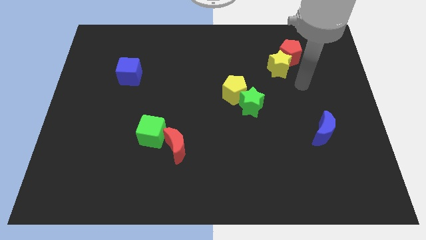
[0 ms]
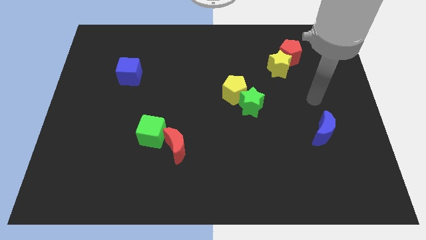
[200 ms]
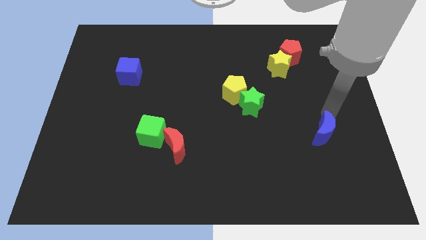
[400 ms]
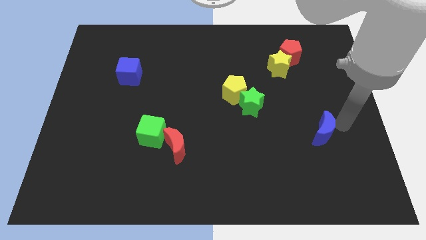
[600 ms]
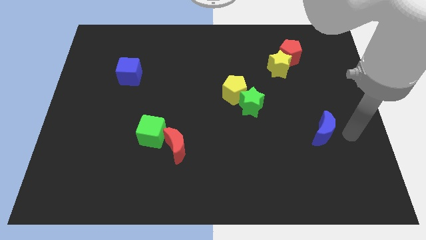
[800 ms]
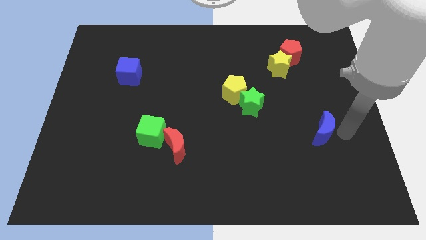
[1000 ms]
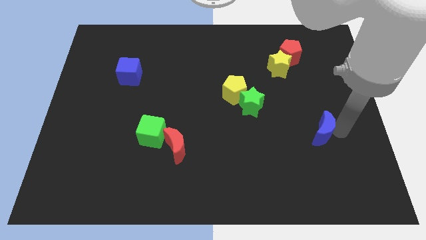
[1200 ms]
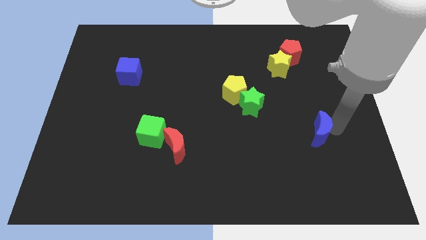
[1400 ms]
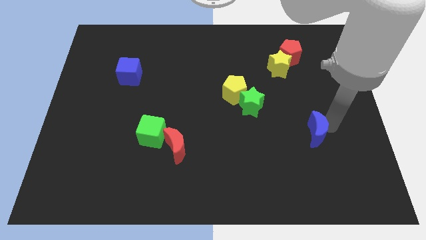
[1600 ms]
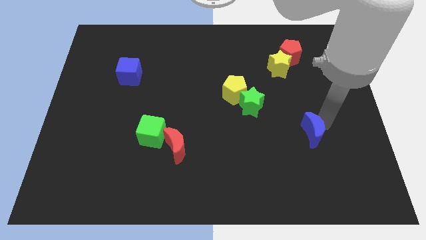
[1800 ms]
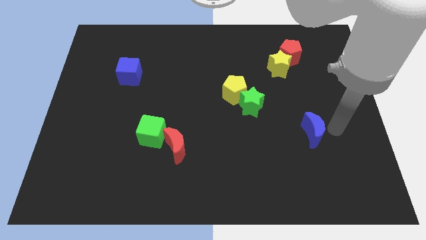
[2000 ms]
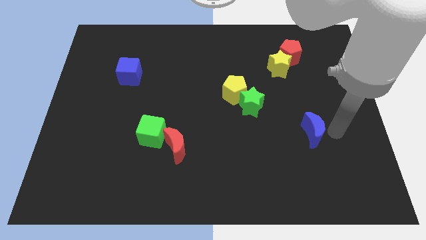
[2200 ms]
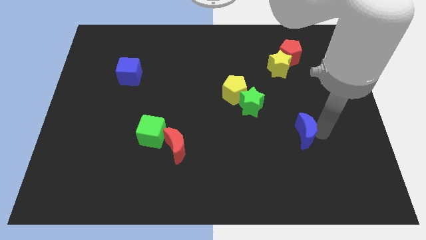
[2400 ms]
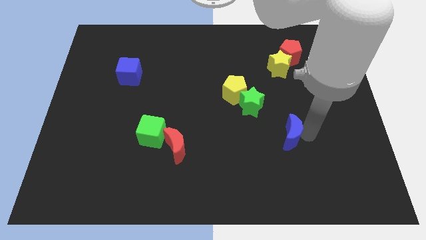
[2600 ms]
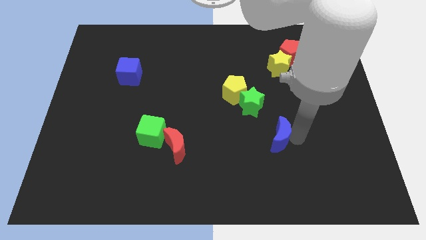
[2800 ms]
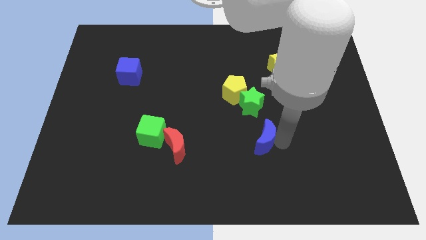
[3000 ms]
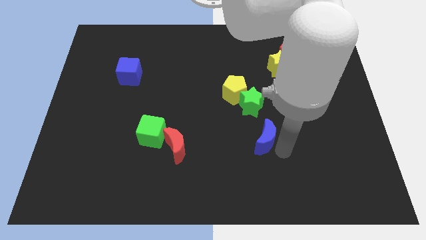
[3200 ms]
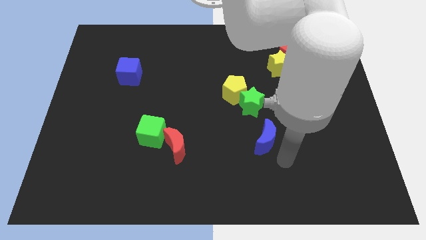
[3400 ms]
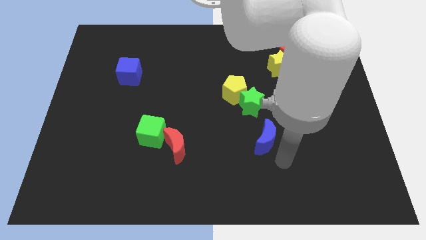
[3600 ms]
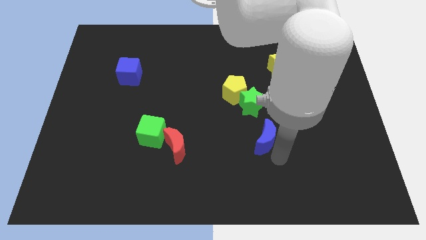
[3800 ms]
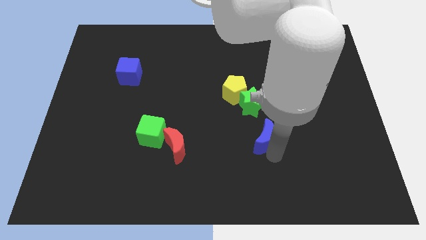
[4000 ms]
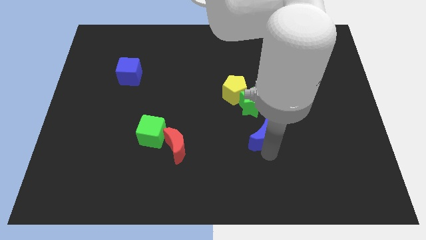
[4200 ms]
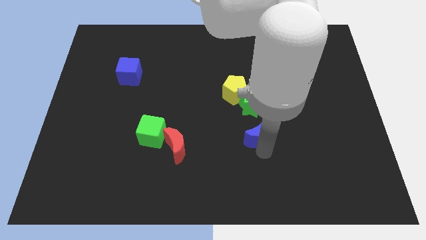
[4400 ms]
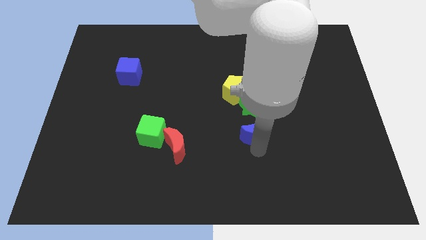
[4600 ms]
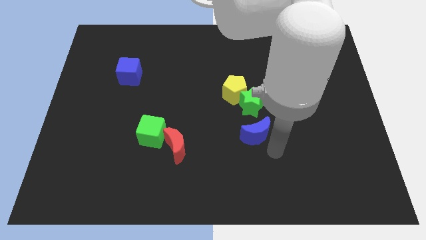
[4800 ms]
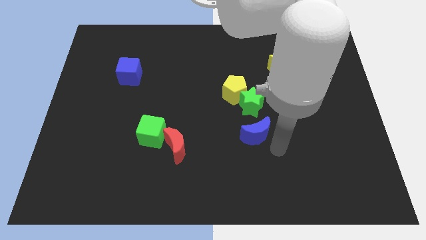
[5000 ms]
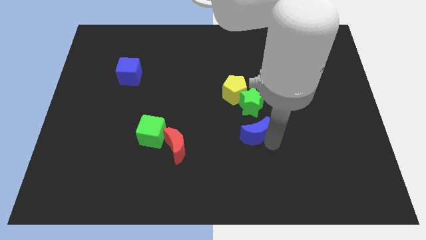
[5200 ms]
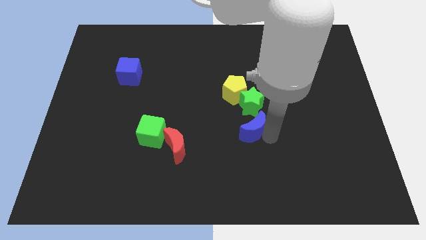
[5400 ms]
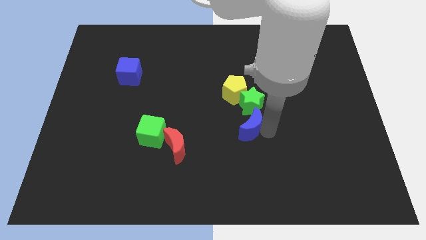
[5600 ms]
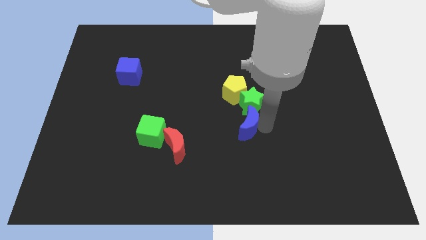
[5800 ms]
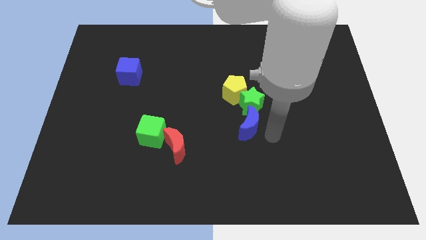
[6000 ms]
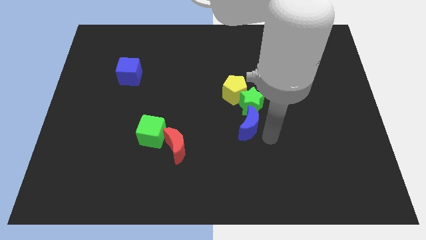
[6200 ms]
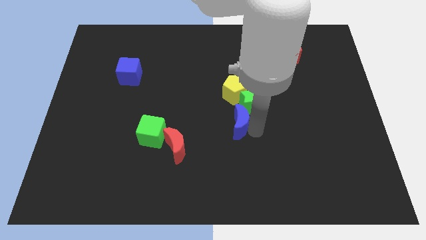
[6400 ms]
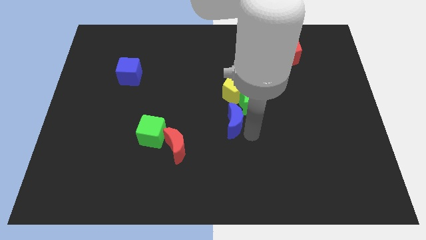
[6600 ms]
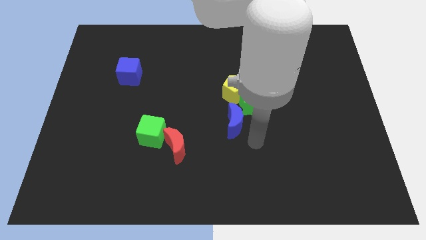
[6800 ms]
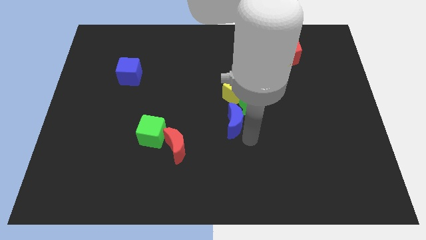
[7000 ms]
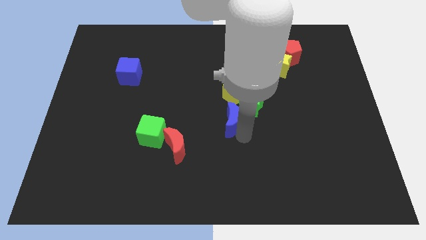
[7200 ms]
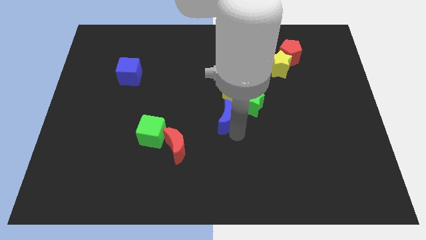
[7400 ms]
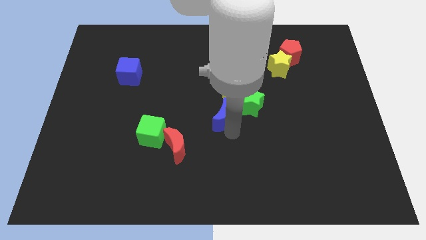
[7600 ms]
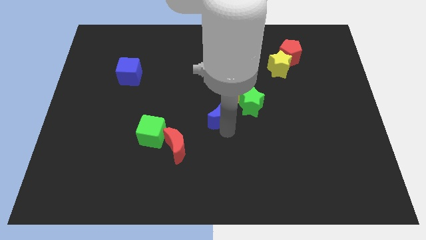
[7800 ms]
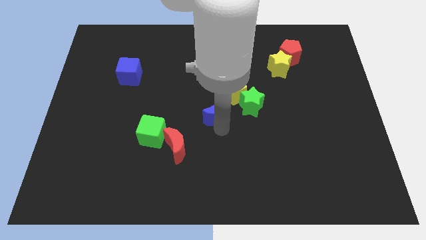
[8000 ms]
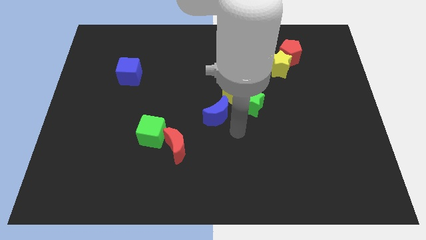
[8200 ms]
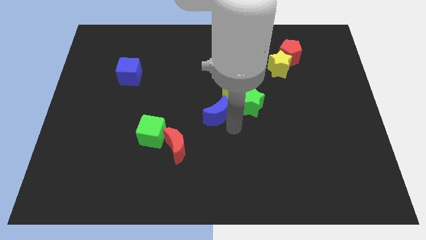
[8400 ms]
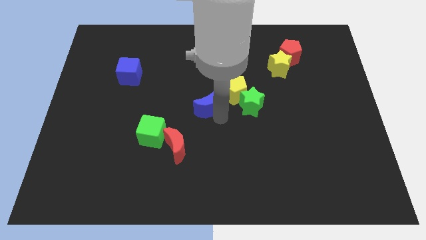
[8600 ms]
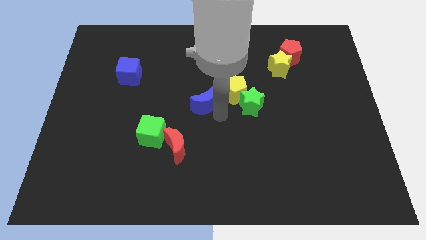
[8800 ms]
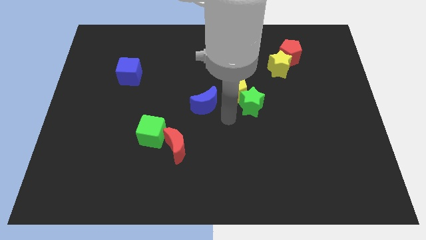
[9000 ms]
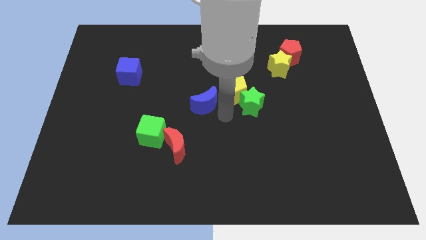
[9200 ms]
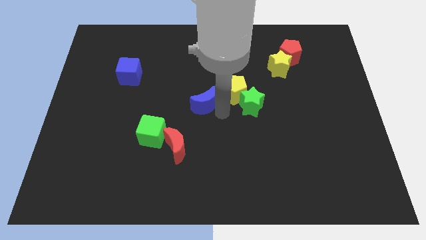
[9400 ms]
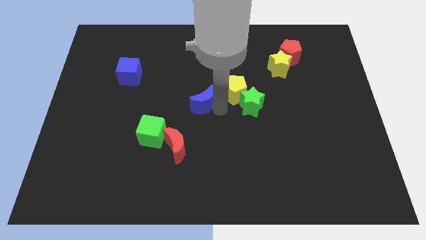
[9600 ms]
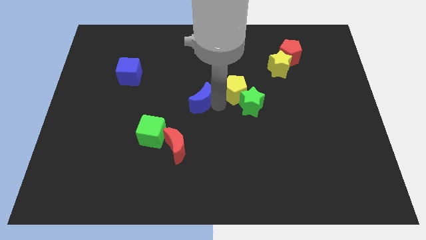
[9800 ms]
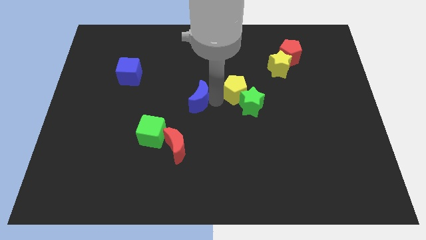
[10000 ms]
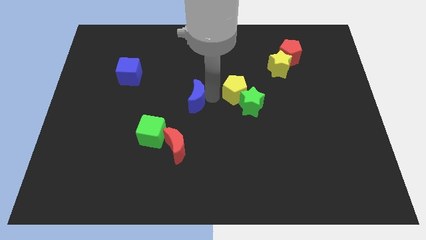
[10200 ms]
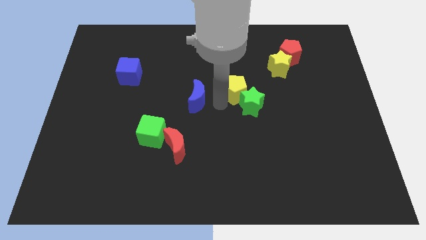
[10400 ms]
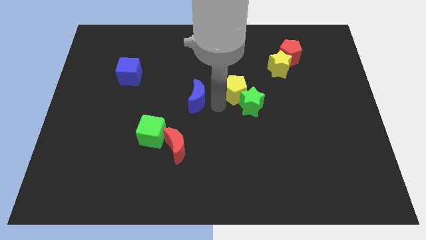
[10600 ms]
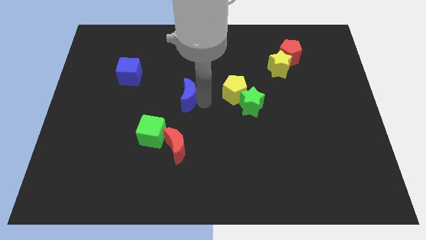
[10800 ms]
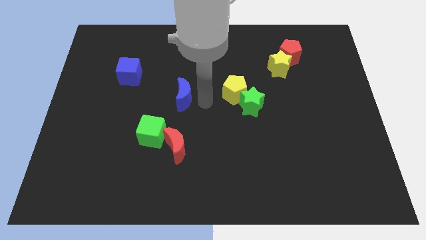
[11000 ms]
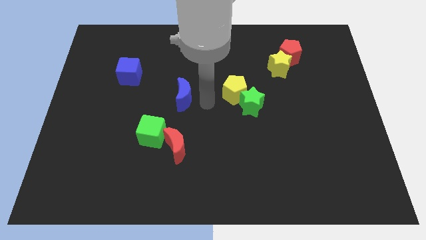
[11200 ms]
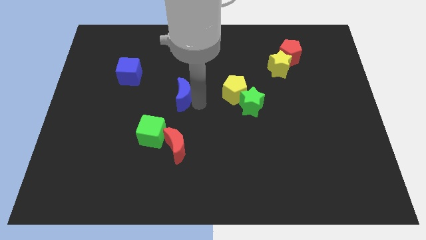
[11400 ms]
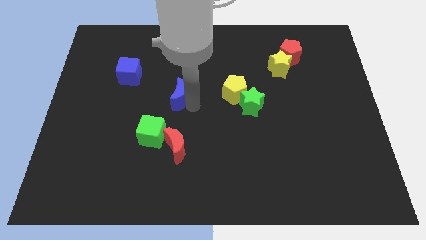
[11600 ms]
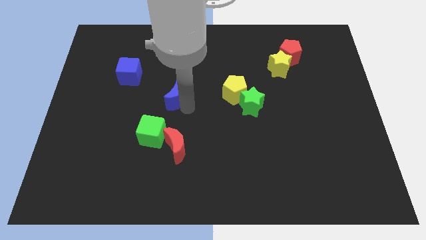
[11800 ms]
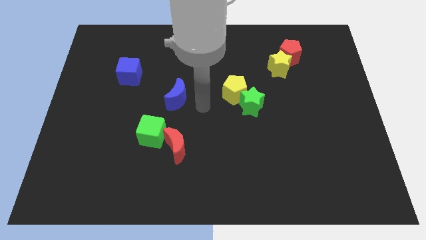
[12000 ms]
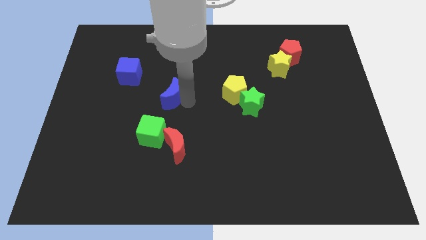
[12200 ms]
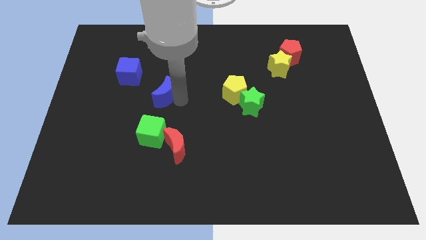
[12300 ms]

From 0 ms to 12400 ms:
slide the blue moon to the bottom right of the blue cube

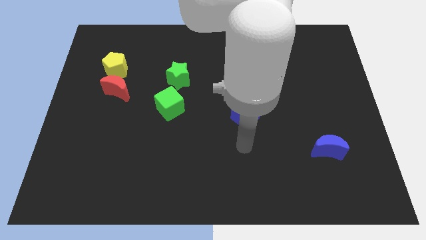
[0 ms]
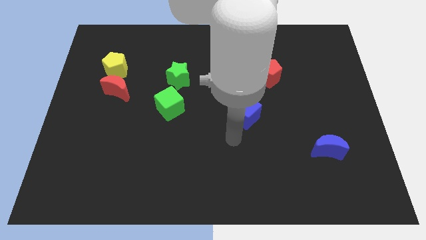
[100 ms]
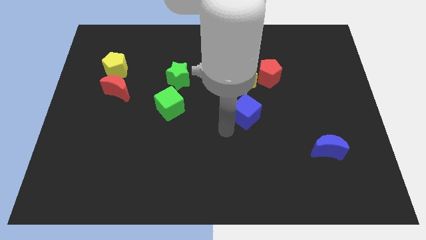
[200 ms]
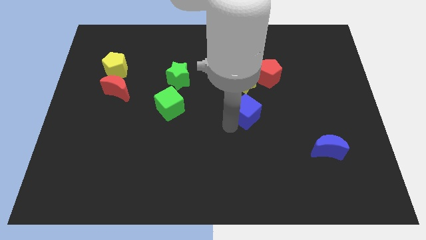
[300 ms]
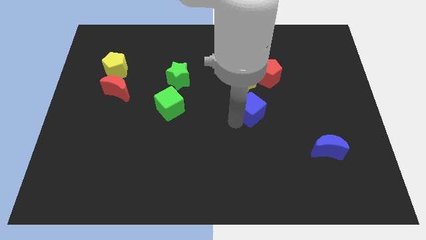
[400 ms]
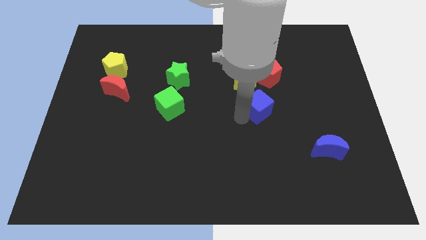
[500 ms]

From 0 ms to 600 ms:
push the blue cube to the bottom right side of the yellow star

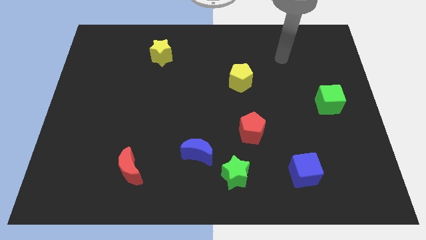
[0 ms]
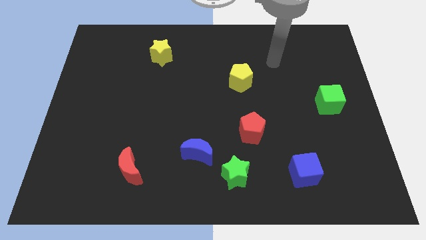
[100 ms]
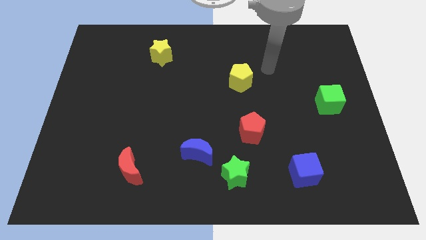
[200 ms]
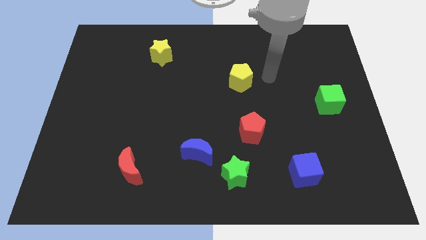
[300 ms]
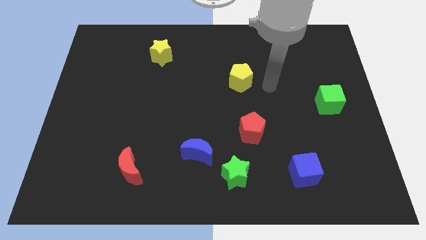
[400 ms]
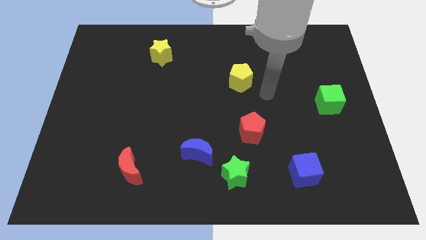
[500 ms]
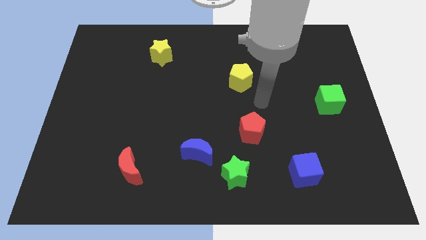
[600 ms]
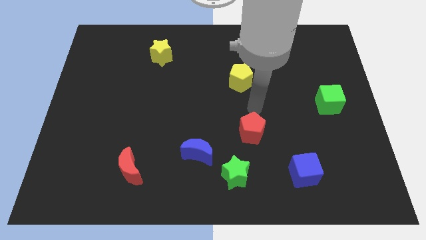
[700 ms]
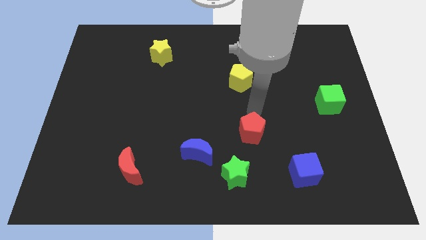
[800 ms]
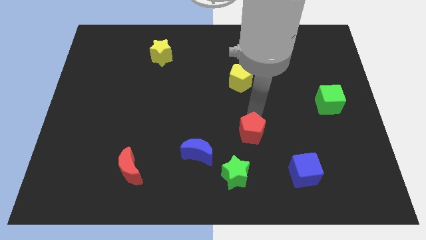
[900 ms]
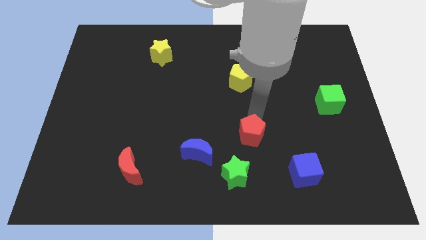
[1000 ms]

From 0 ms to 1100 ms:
slide the red pentagon to the right of the blue moon
